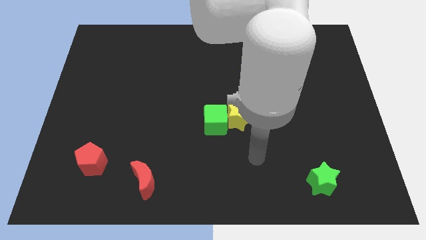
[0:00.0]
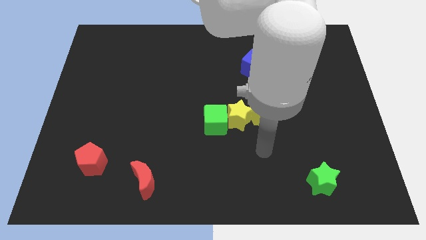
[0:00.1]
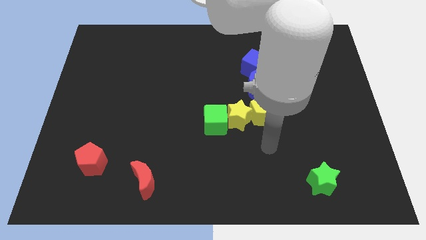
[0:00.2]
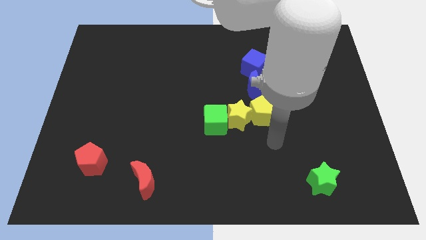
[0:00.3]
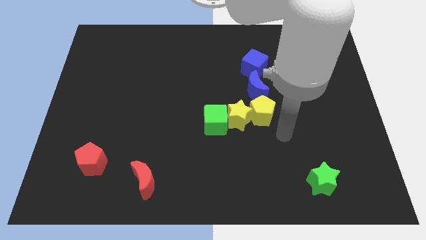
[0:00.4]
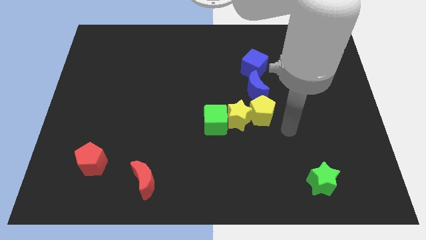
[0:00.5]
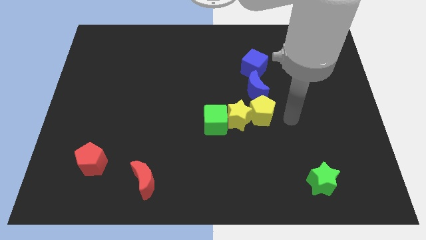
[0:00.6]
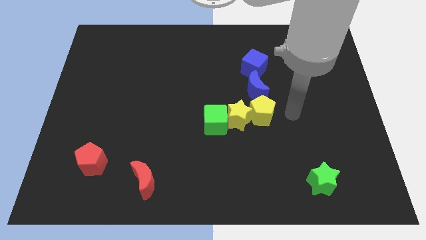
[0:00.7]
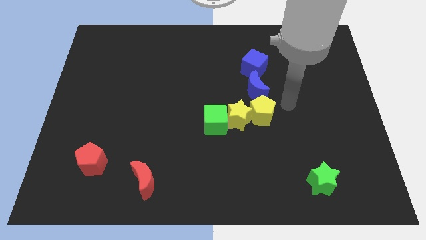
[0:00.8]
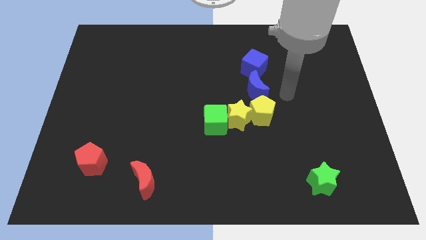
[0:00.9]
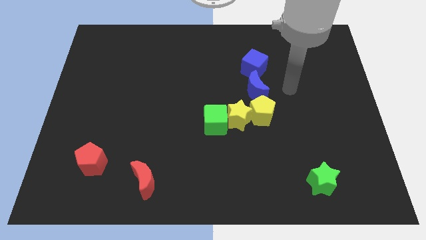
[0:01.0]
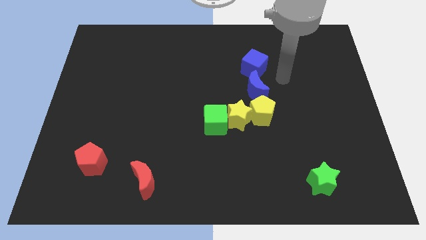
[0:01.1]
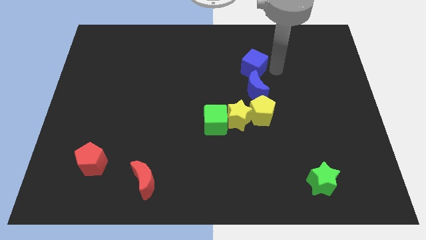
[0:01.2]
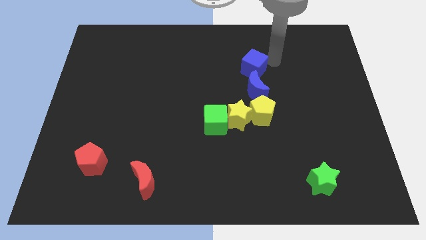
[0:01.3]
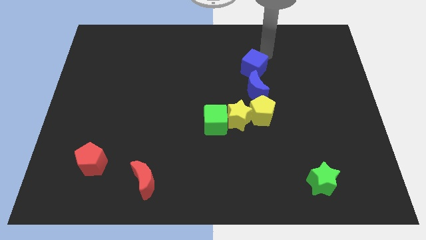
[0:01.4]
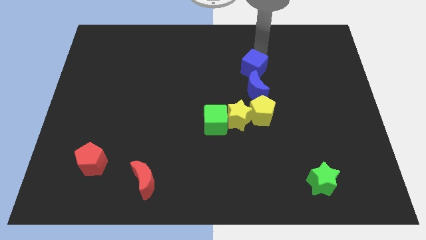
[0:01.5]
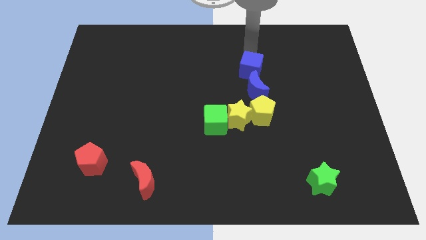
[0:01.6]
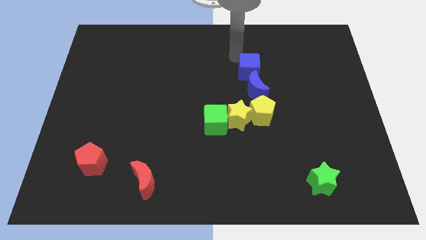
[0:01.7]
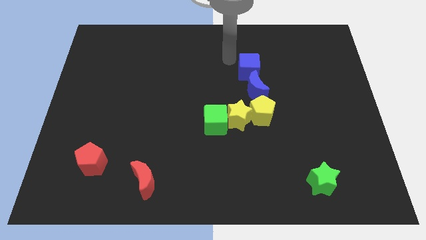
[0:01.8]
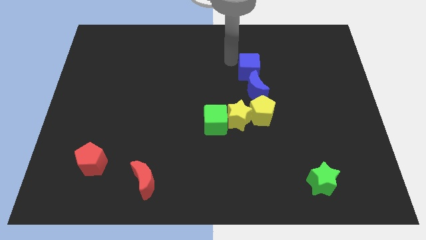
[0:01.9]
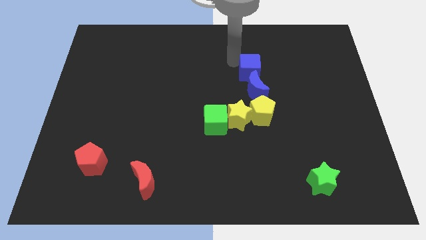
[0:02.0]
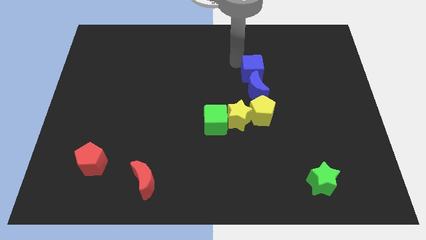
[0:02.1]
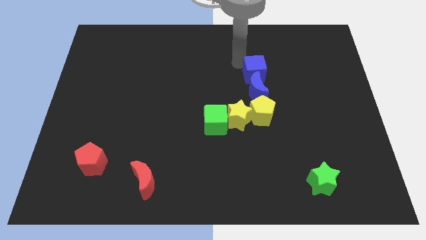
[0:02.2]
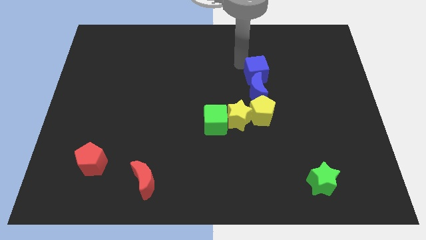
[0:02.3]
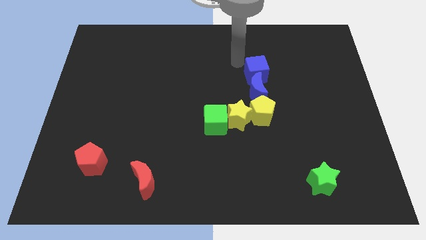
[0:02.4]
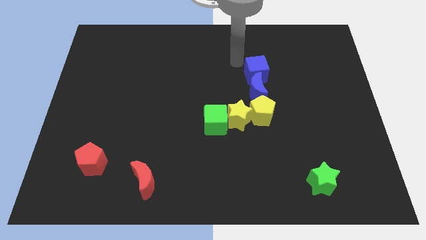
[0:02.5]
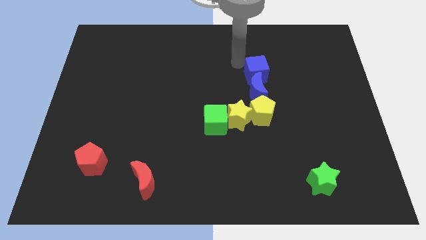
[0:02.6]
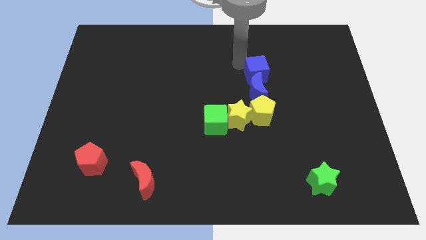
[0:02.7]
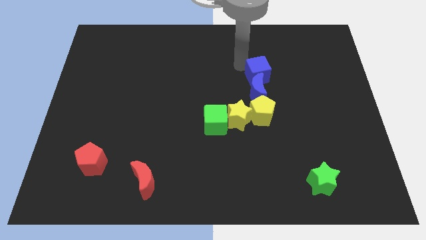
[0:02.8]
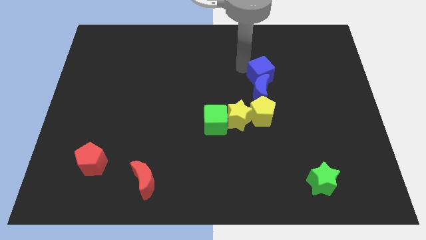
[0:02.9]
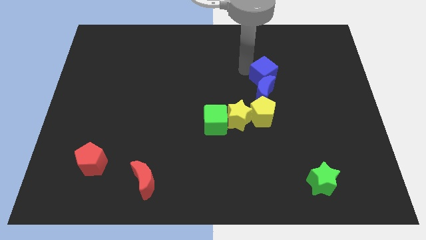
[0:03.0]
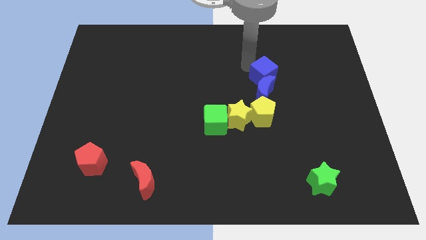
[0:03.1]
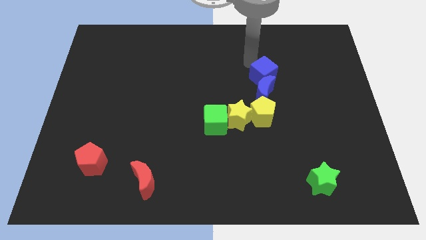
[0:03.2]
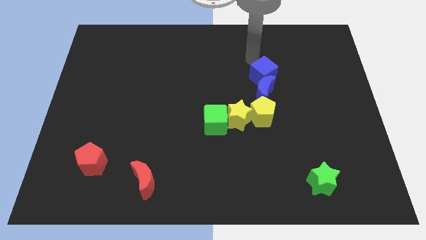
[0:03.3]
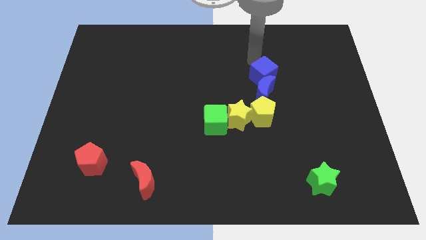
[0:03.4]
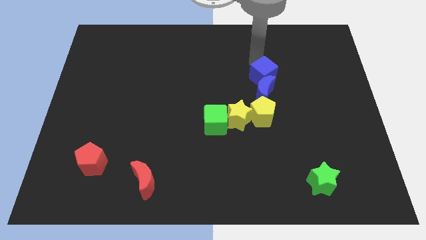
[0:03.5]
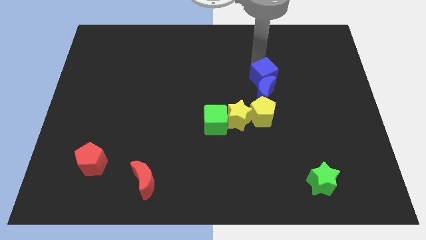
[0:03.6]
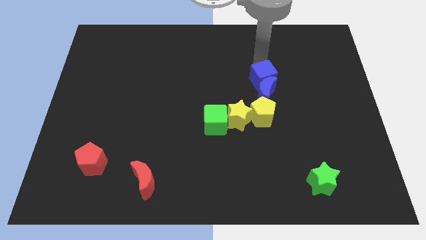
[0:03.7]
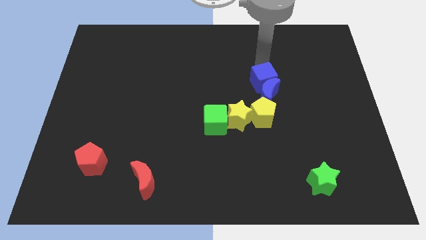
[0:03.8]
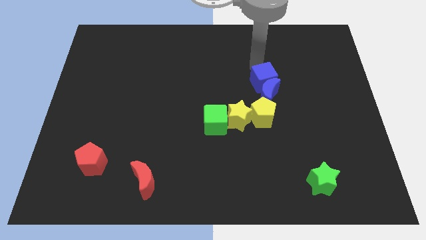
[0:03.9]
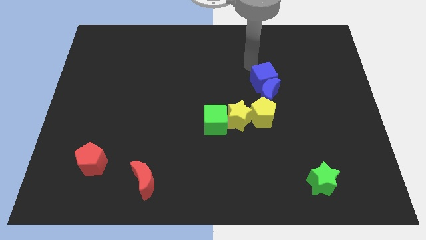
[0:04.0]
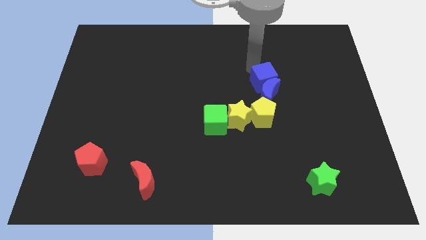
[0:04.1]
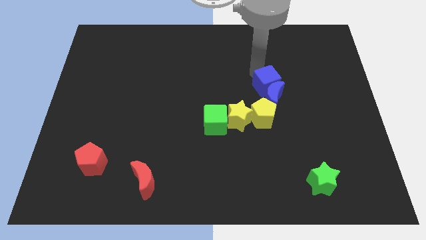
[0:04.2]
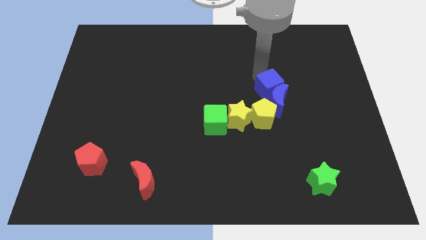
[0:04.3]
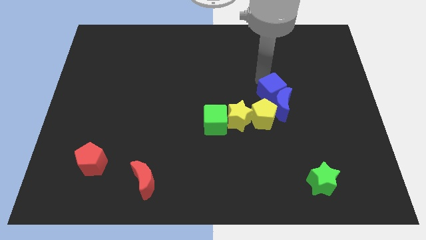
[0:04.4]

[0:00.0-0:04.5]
slide the blue cube down a little

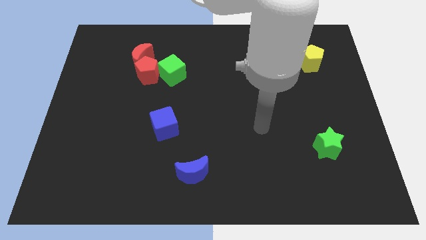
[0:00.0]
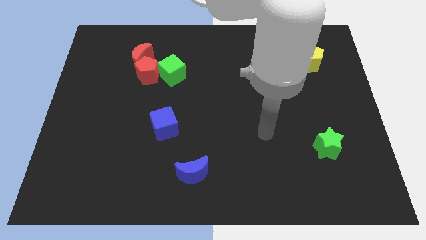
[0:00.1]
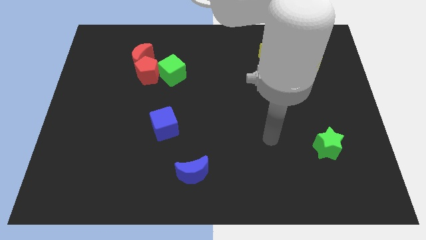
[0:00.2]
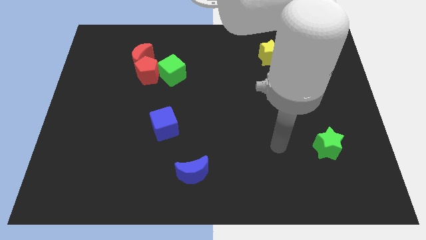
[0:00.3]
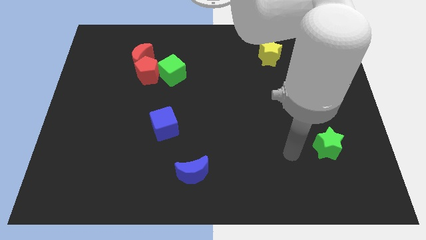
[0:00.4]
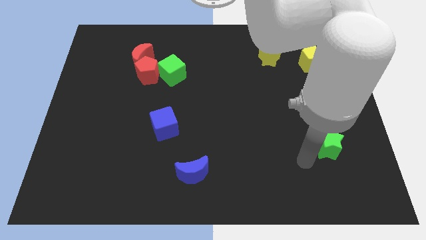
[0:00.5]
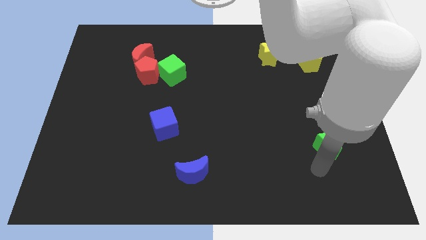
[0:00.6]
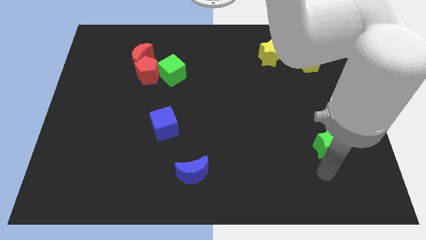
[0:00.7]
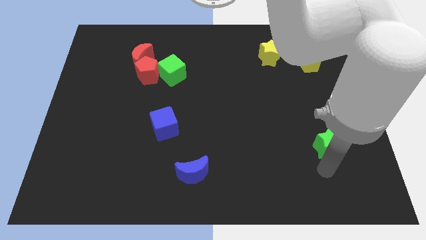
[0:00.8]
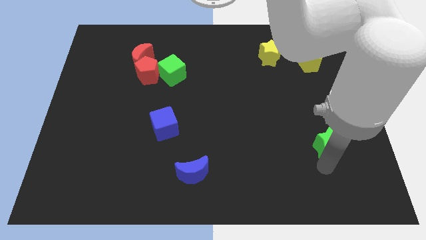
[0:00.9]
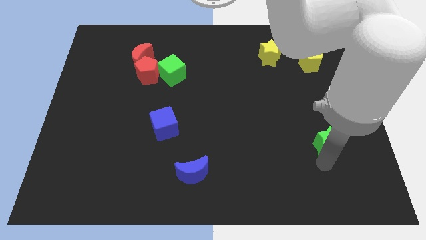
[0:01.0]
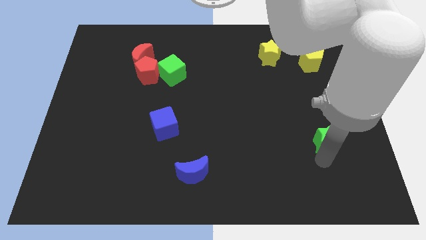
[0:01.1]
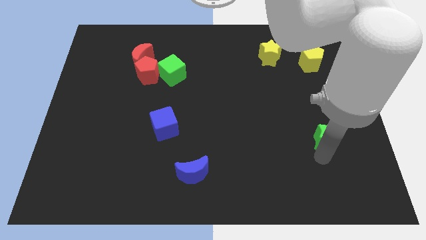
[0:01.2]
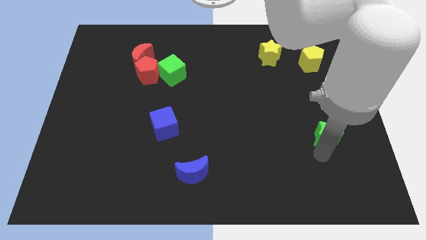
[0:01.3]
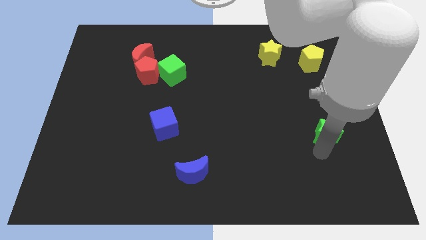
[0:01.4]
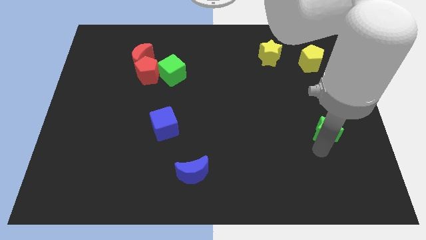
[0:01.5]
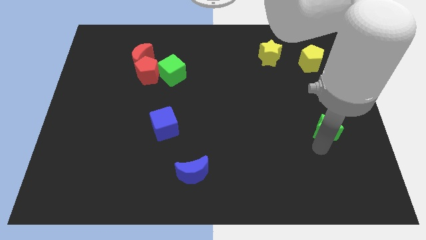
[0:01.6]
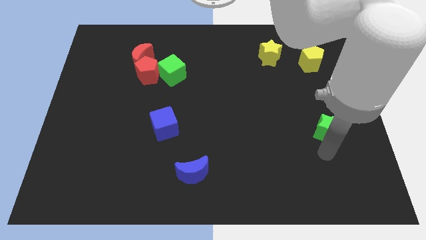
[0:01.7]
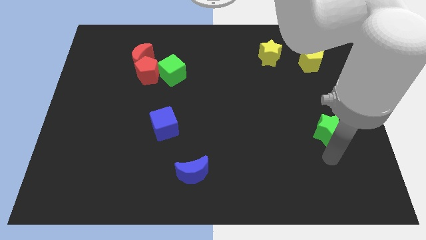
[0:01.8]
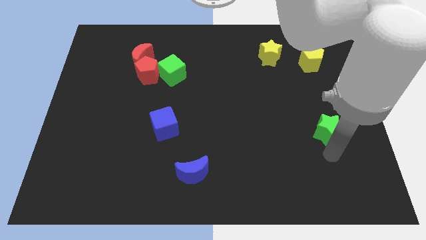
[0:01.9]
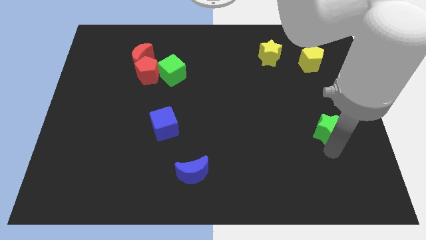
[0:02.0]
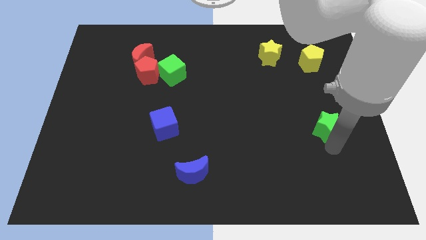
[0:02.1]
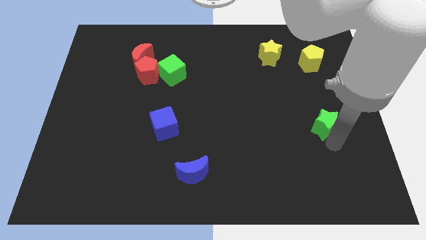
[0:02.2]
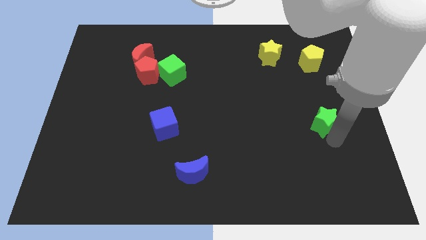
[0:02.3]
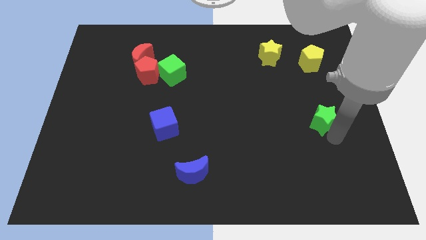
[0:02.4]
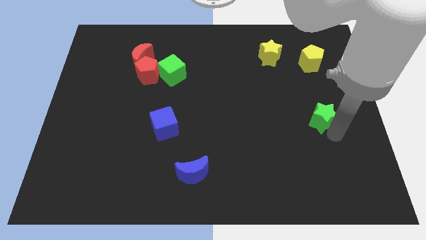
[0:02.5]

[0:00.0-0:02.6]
slightly push the green star upwards

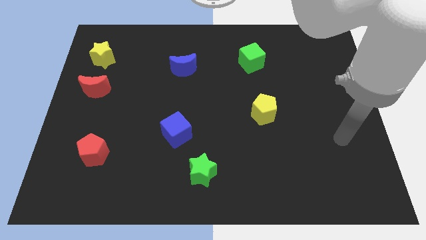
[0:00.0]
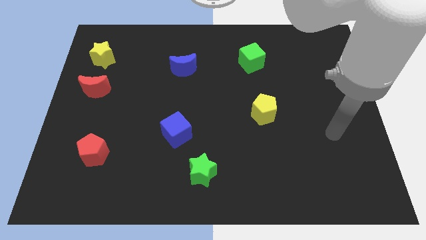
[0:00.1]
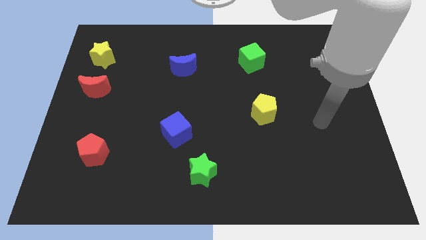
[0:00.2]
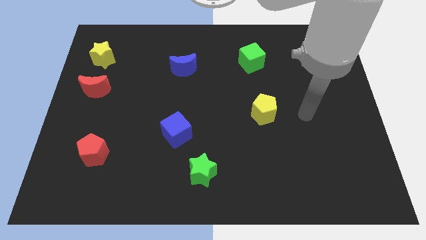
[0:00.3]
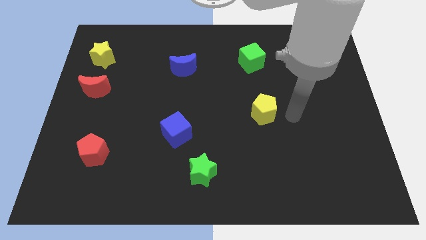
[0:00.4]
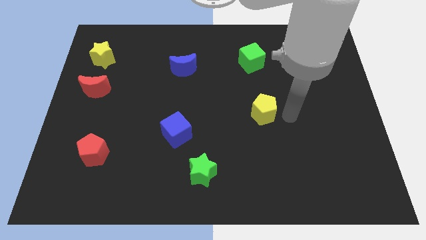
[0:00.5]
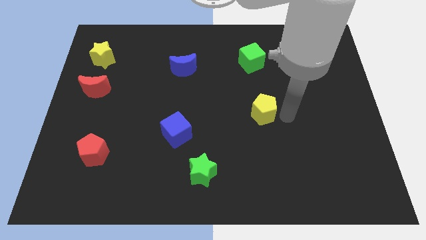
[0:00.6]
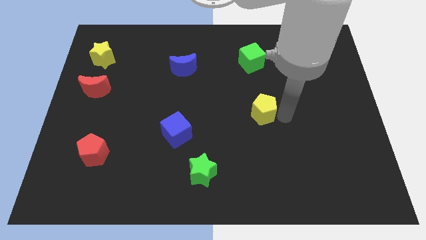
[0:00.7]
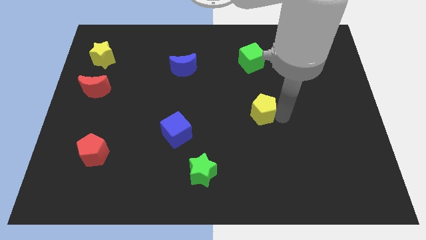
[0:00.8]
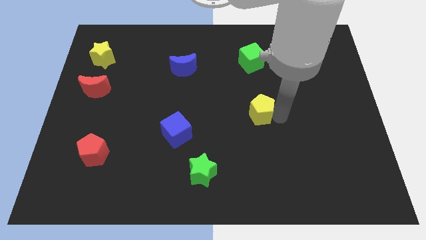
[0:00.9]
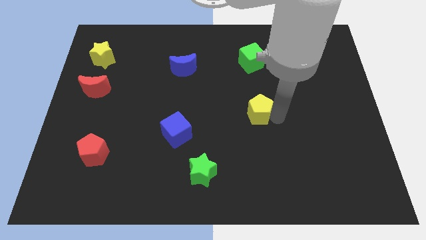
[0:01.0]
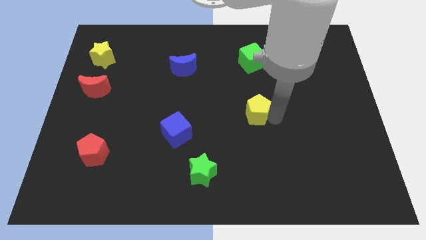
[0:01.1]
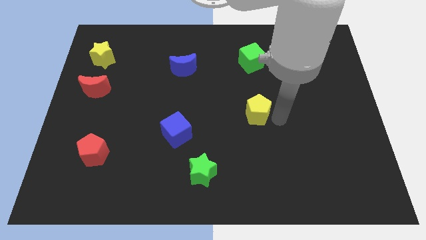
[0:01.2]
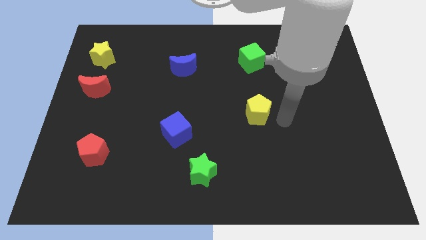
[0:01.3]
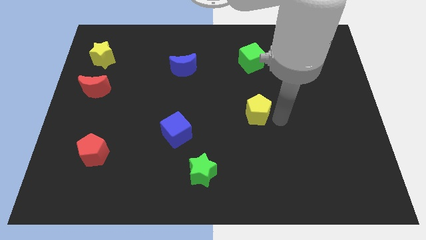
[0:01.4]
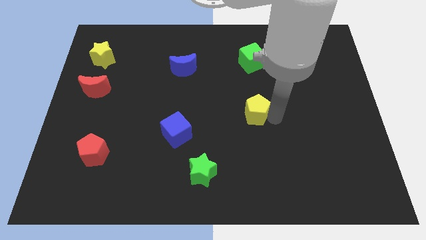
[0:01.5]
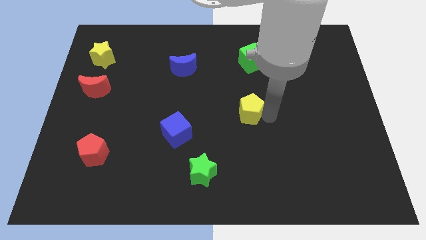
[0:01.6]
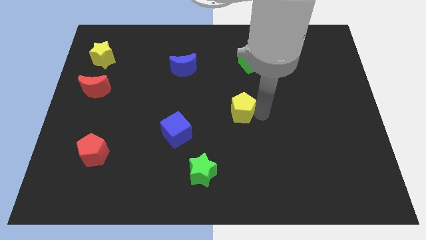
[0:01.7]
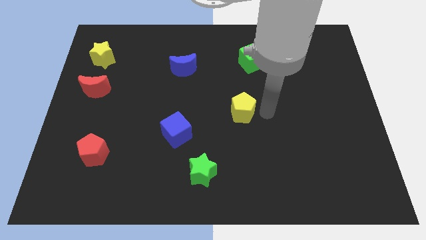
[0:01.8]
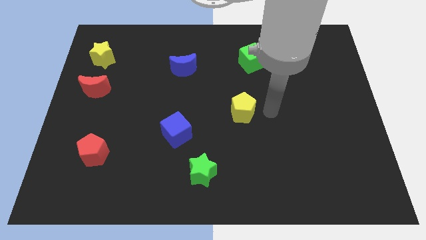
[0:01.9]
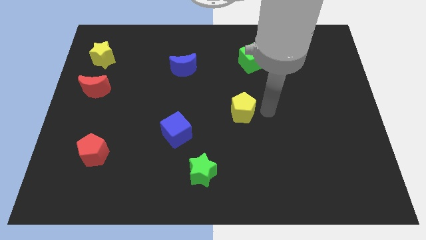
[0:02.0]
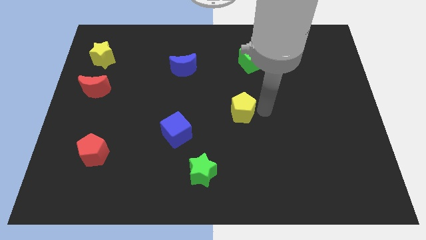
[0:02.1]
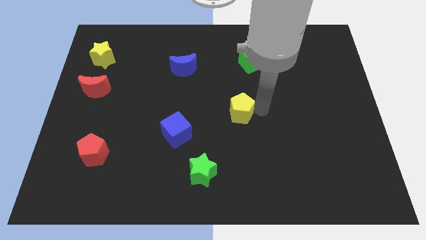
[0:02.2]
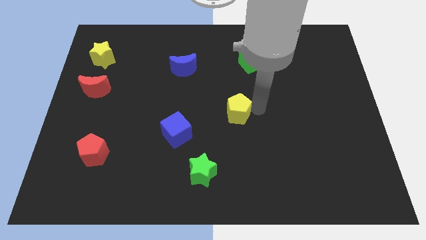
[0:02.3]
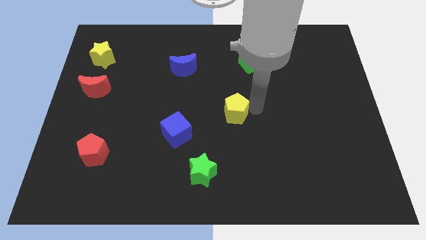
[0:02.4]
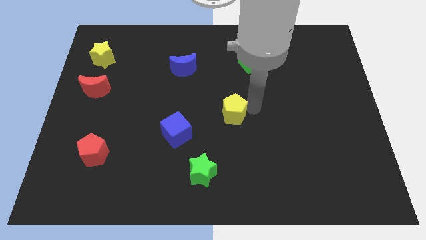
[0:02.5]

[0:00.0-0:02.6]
slightly slide the yellow pentagon left
